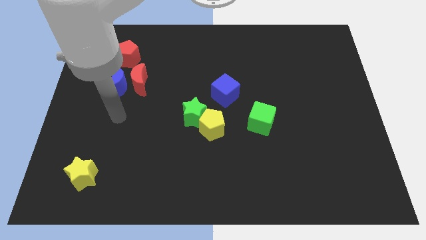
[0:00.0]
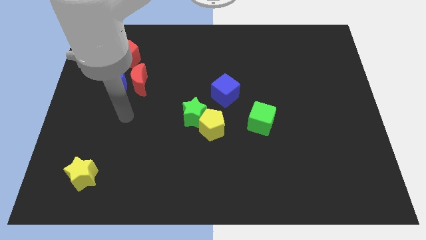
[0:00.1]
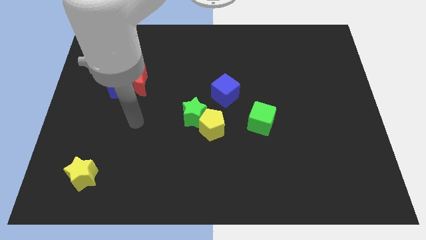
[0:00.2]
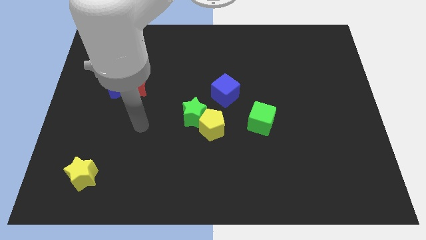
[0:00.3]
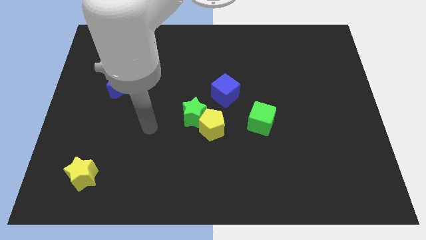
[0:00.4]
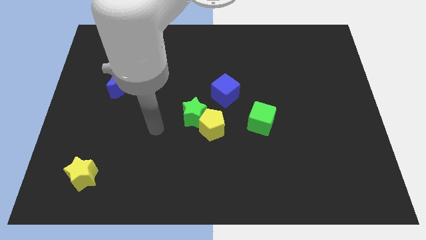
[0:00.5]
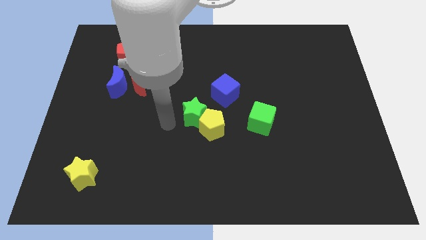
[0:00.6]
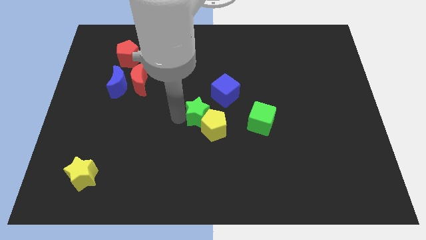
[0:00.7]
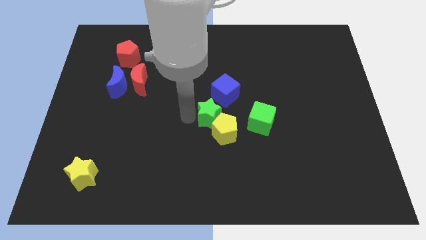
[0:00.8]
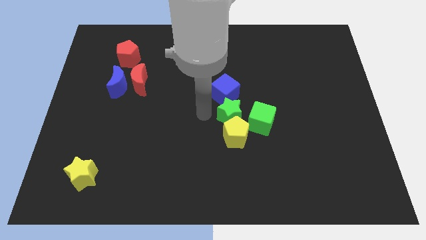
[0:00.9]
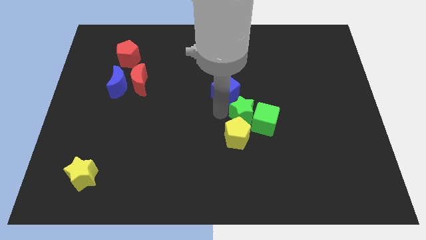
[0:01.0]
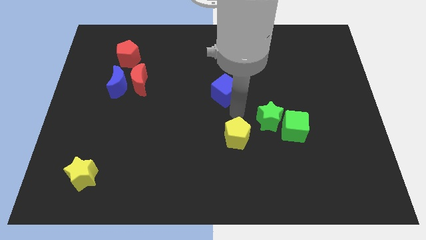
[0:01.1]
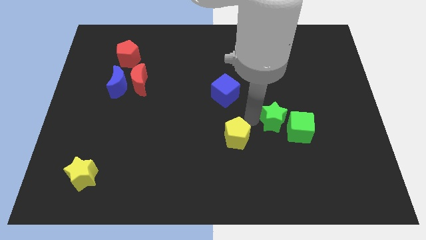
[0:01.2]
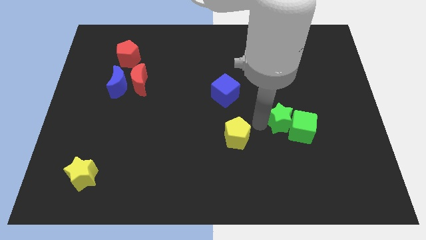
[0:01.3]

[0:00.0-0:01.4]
pull the yellow pentagon apart from the green star

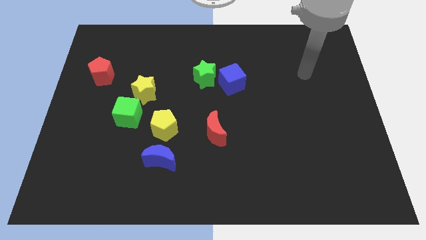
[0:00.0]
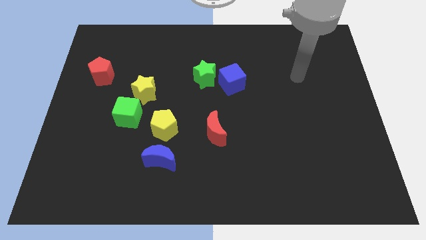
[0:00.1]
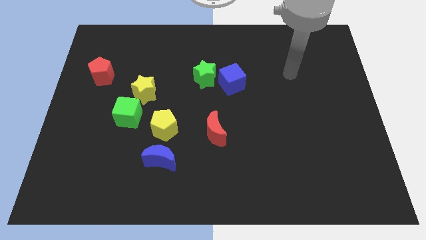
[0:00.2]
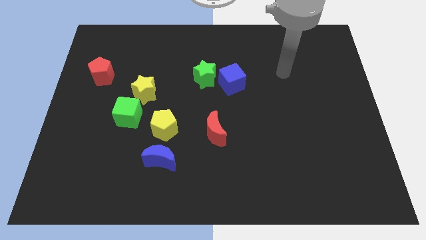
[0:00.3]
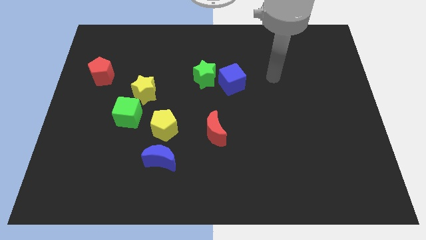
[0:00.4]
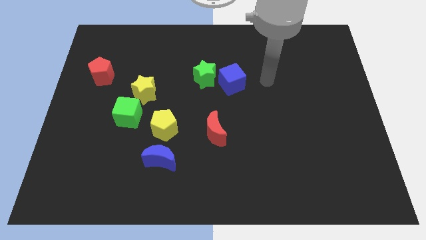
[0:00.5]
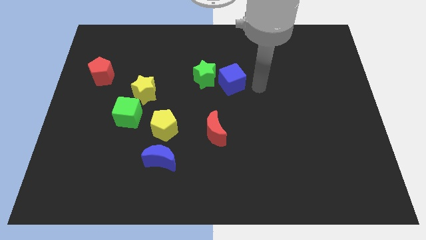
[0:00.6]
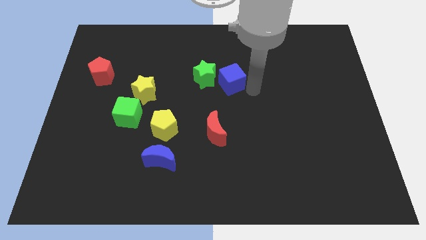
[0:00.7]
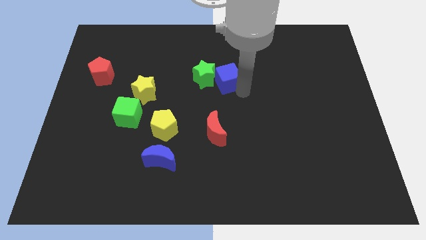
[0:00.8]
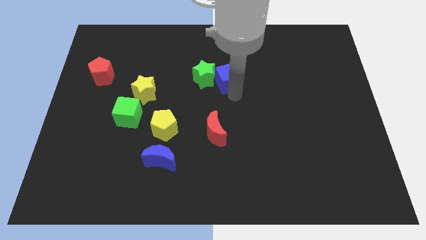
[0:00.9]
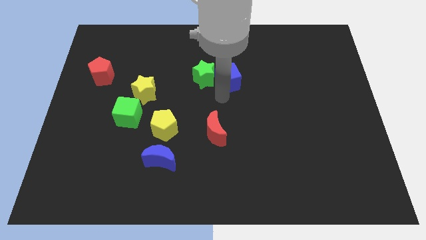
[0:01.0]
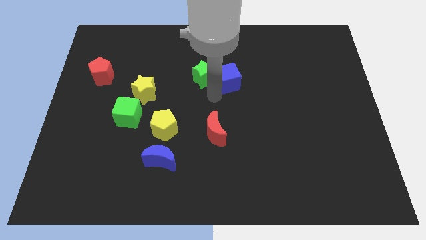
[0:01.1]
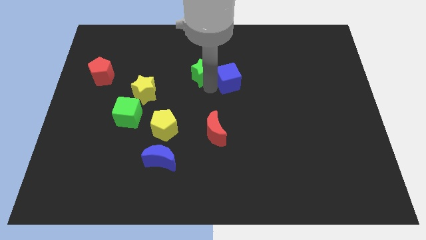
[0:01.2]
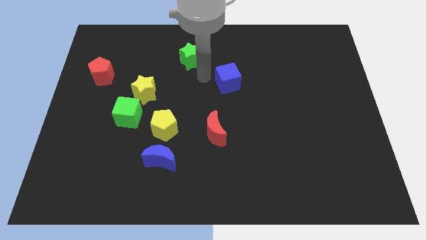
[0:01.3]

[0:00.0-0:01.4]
separate the blue cube from the green star

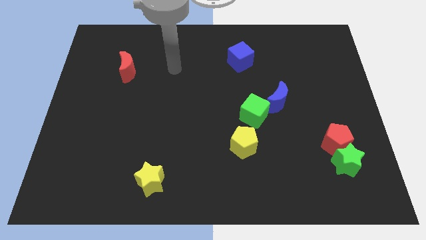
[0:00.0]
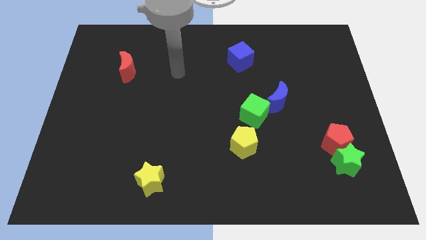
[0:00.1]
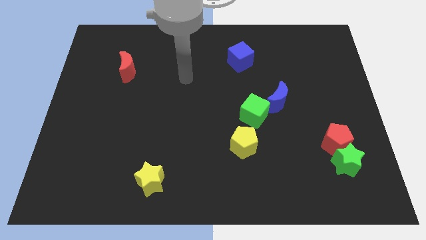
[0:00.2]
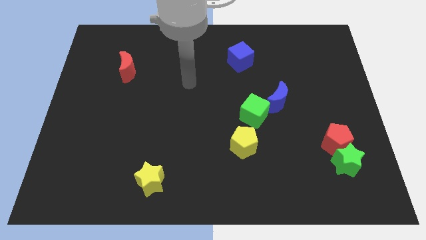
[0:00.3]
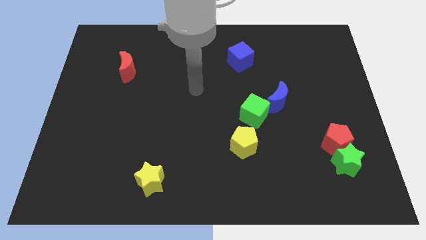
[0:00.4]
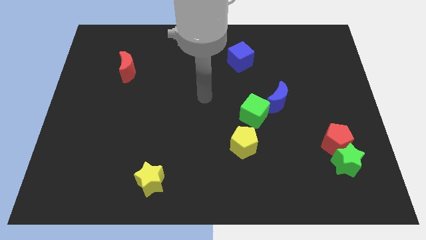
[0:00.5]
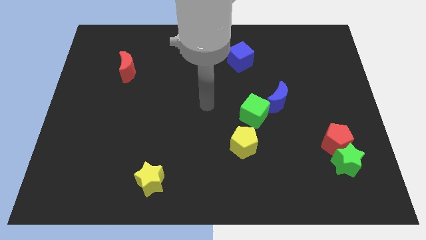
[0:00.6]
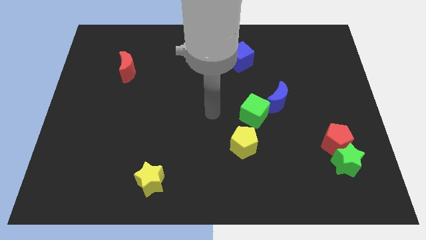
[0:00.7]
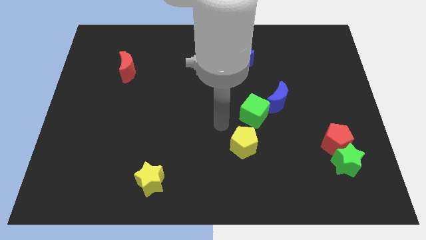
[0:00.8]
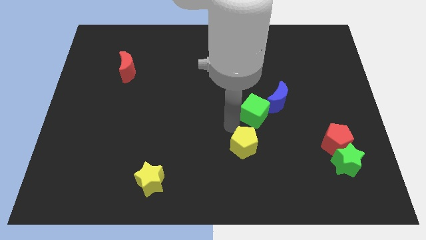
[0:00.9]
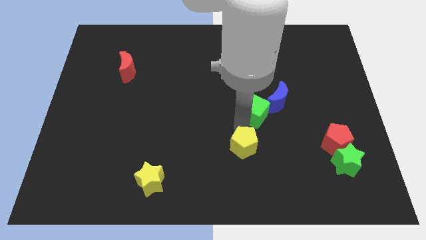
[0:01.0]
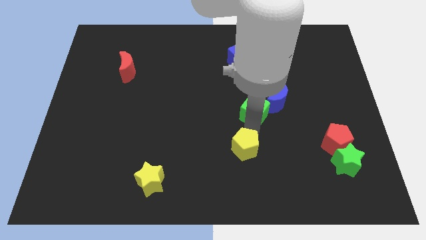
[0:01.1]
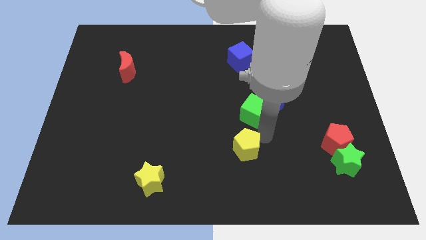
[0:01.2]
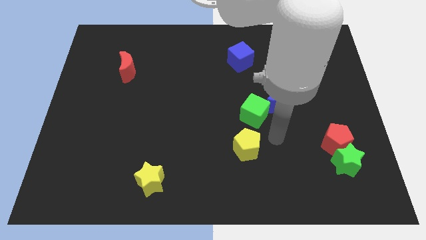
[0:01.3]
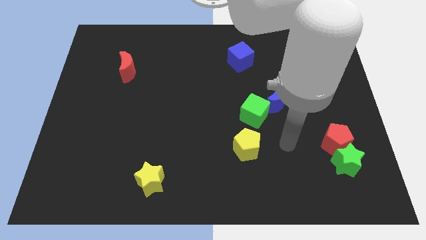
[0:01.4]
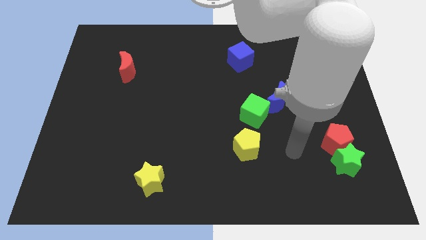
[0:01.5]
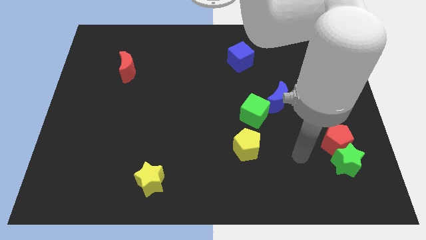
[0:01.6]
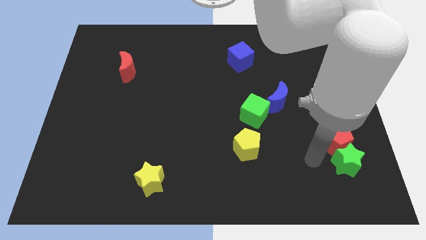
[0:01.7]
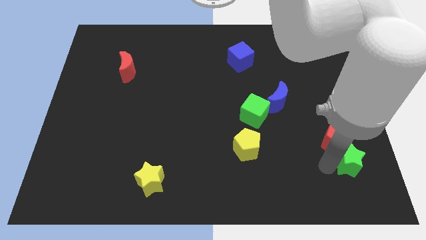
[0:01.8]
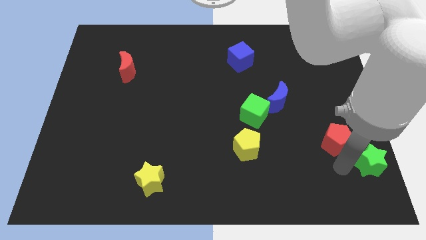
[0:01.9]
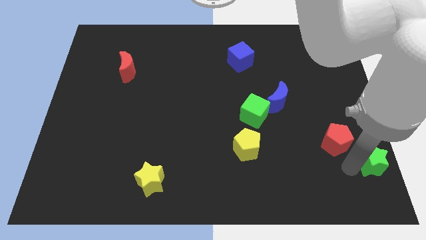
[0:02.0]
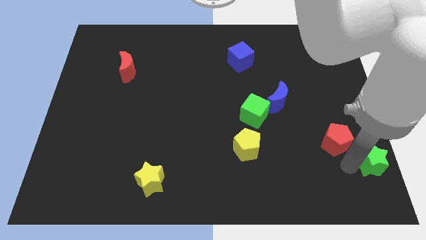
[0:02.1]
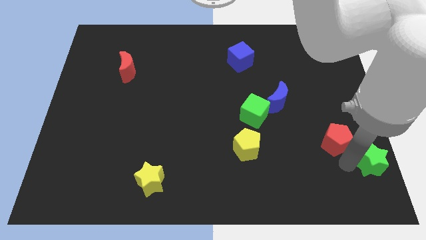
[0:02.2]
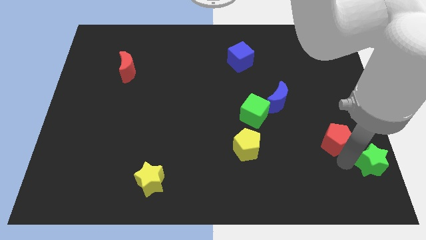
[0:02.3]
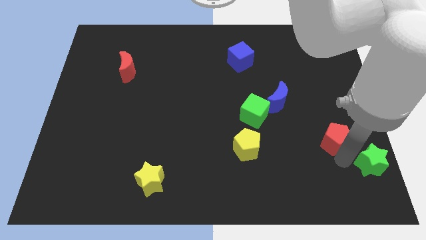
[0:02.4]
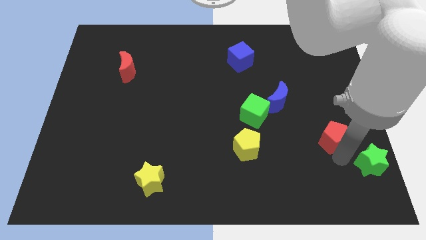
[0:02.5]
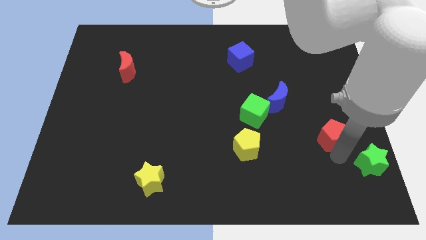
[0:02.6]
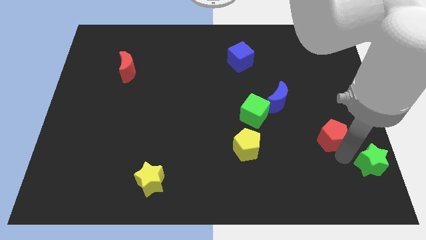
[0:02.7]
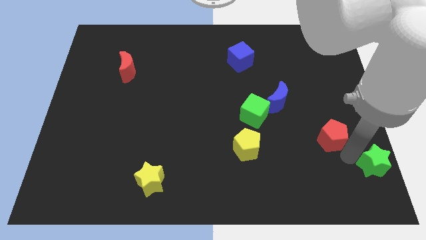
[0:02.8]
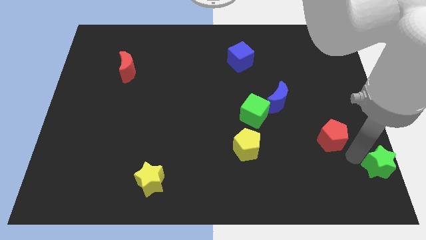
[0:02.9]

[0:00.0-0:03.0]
pull the red pentagon apart from the green star

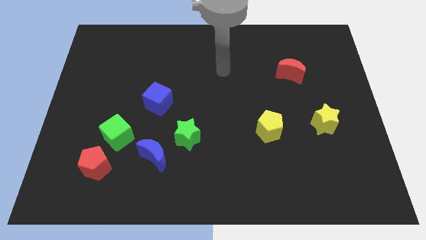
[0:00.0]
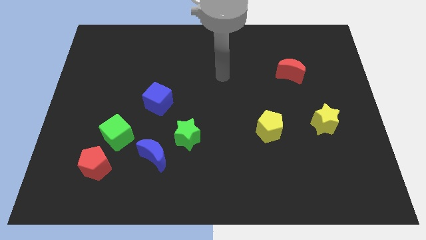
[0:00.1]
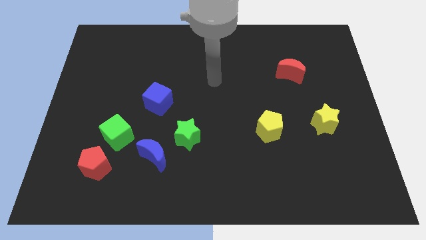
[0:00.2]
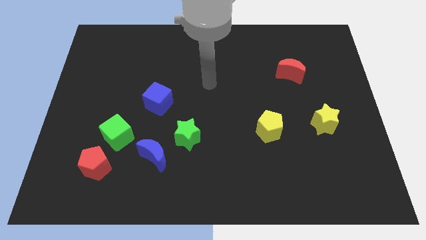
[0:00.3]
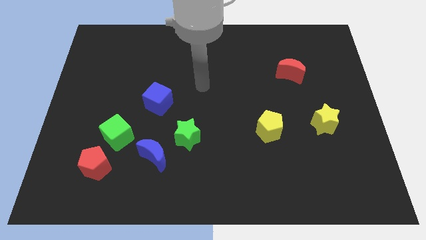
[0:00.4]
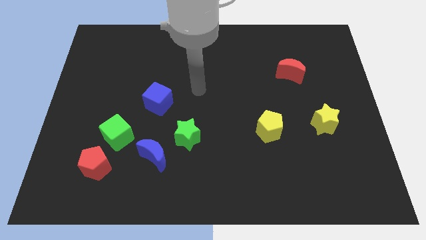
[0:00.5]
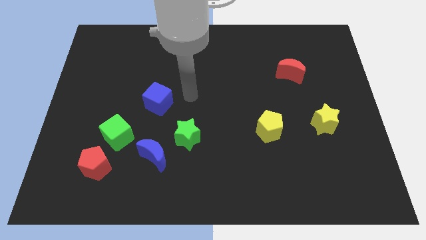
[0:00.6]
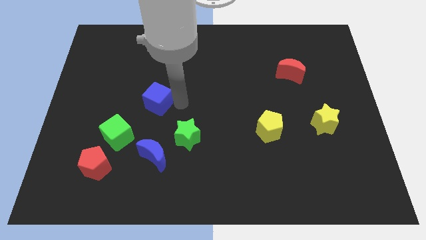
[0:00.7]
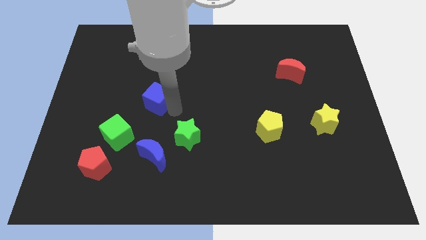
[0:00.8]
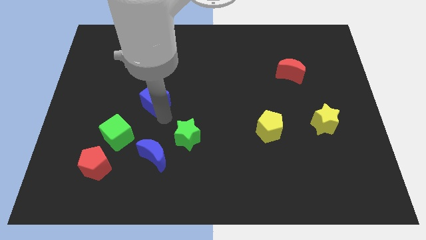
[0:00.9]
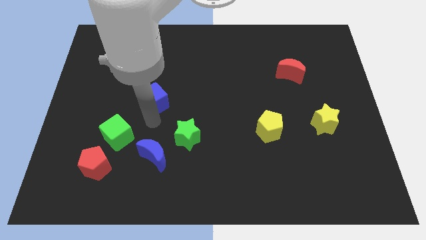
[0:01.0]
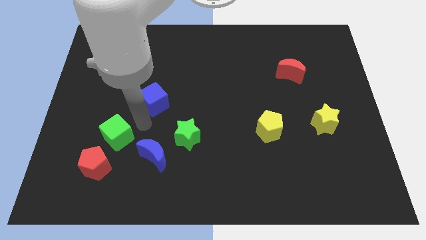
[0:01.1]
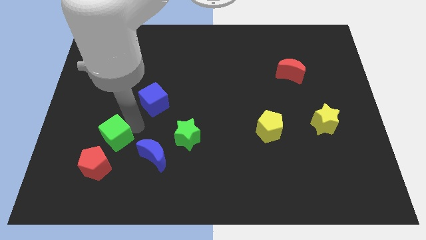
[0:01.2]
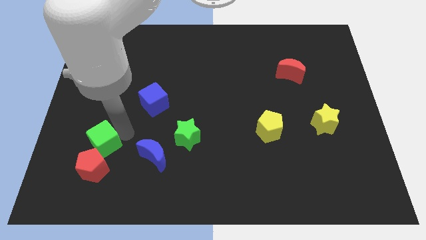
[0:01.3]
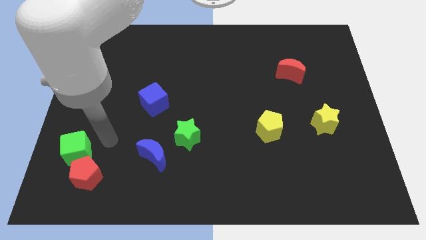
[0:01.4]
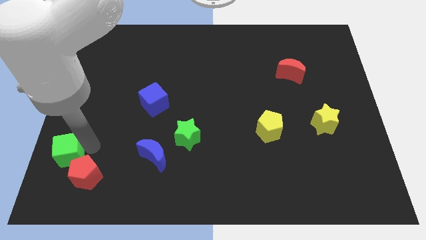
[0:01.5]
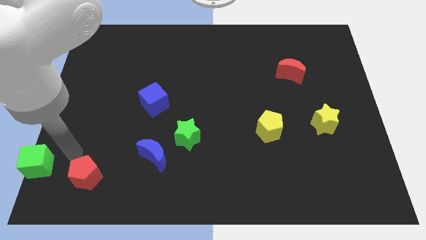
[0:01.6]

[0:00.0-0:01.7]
pull the red pentagon apart from the green cube

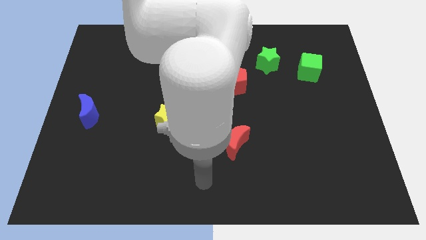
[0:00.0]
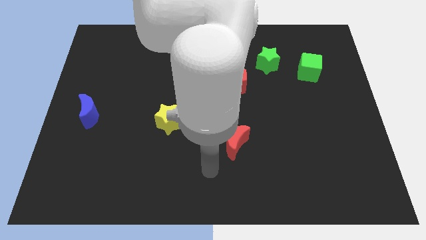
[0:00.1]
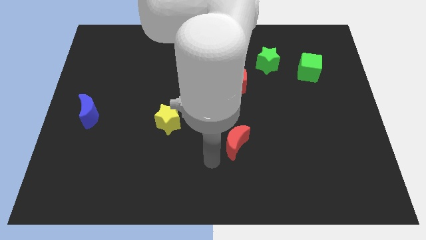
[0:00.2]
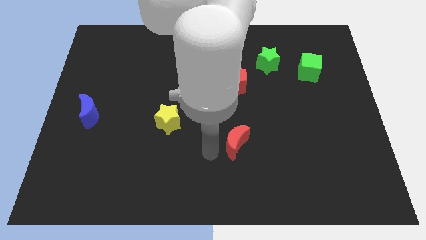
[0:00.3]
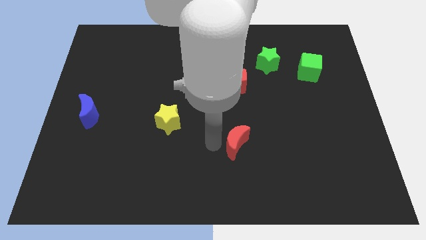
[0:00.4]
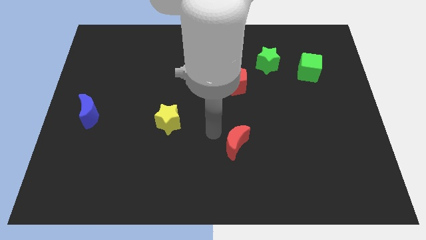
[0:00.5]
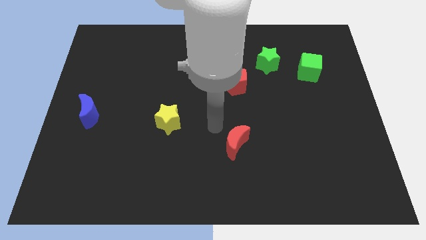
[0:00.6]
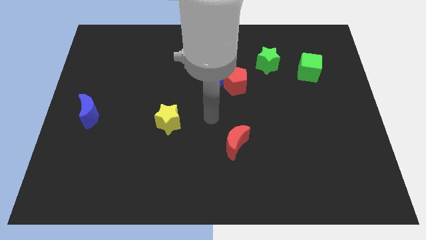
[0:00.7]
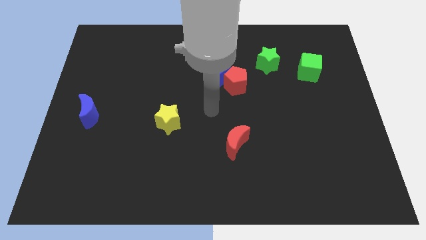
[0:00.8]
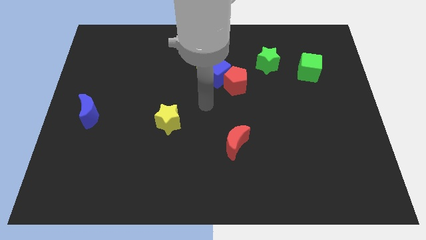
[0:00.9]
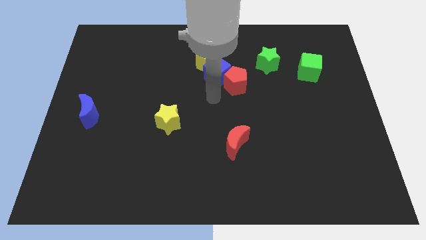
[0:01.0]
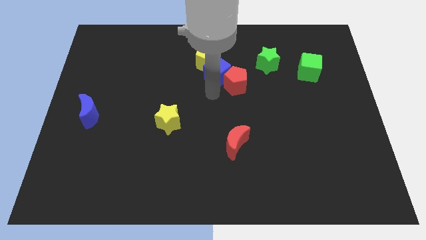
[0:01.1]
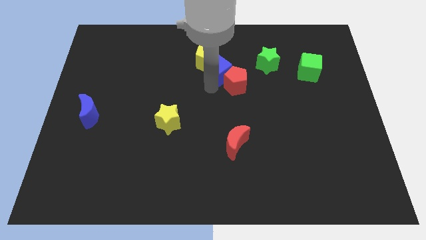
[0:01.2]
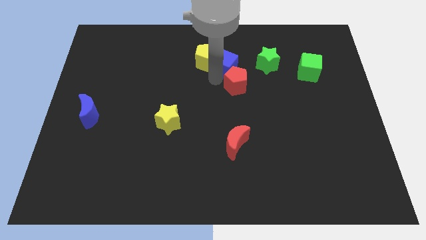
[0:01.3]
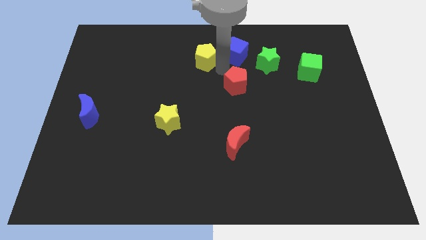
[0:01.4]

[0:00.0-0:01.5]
pull the red pentagon apart from the blue cube

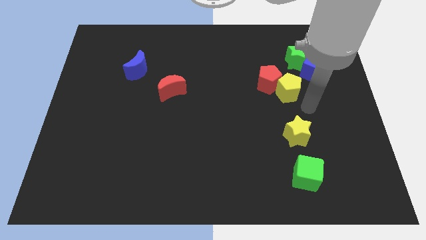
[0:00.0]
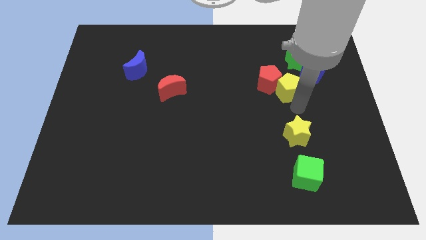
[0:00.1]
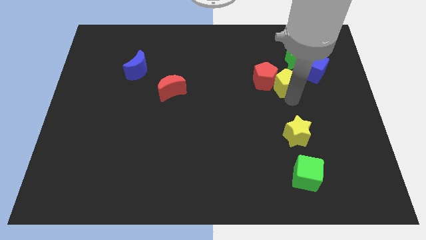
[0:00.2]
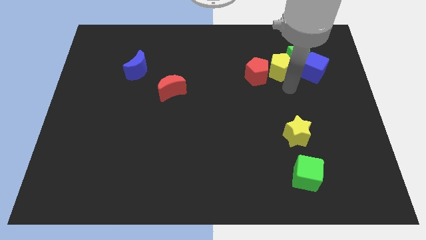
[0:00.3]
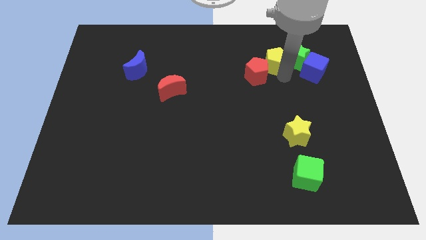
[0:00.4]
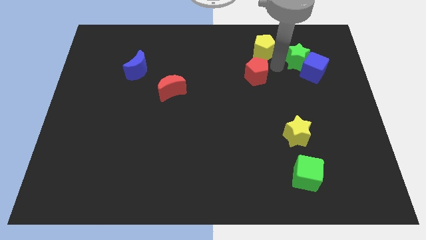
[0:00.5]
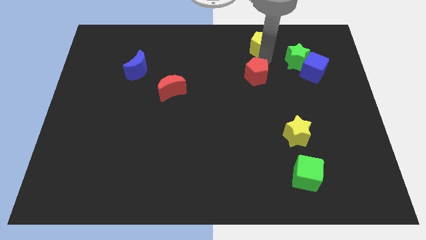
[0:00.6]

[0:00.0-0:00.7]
pull the red pentagon apart from the yellow pentagon
